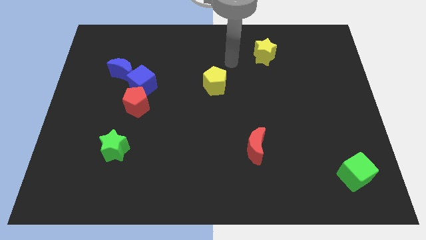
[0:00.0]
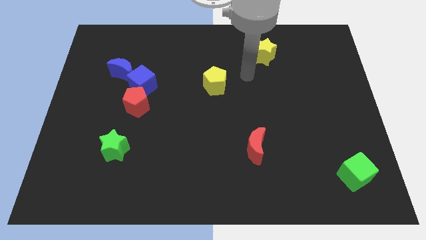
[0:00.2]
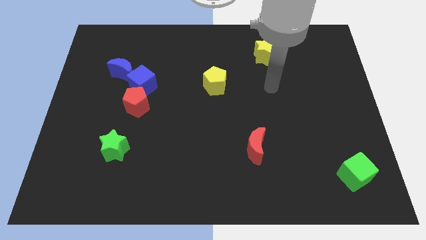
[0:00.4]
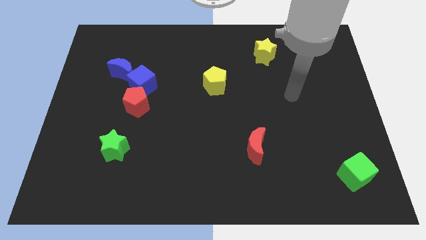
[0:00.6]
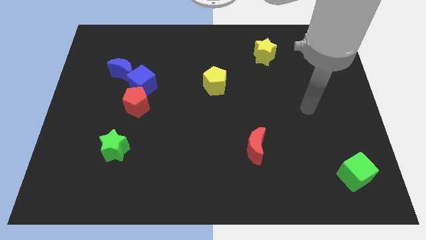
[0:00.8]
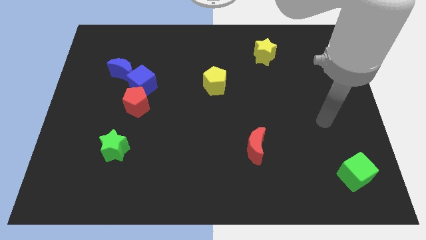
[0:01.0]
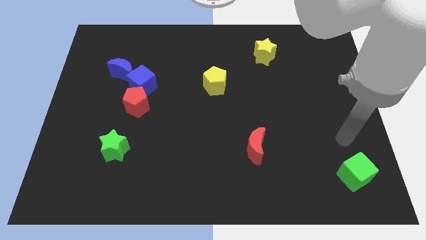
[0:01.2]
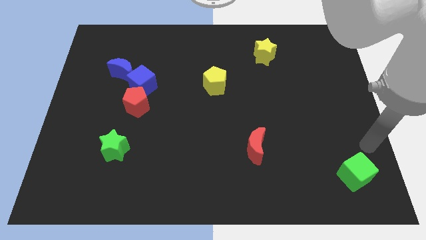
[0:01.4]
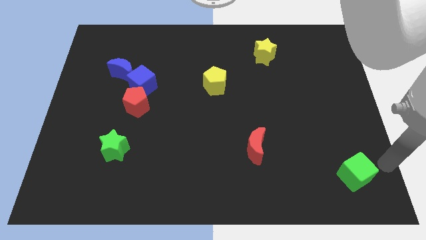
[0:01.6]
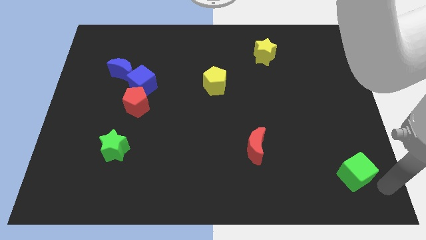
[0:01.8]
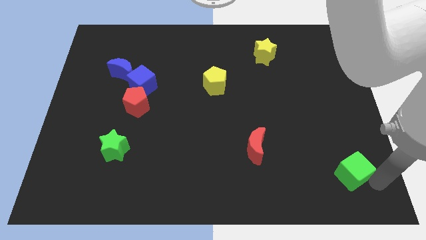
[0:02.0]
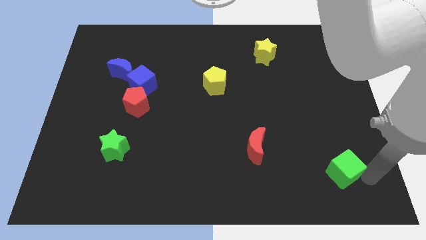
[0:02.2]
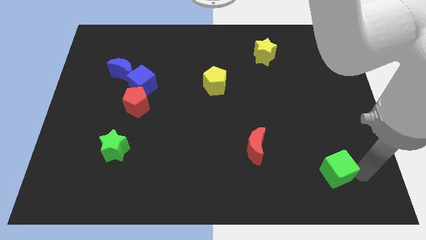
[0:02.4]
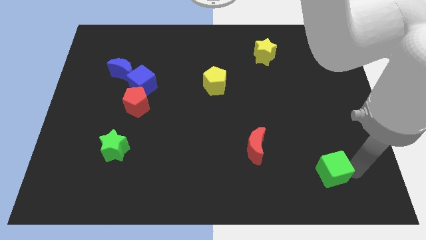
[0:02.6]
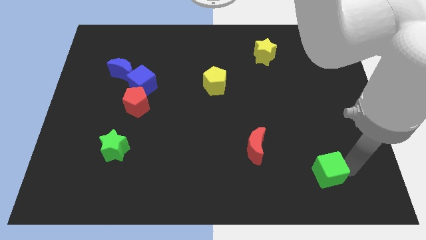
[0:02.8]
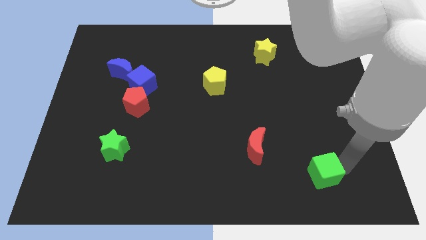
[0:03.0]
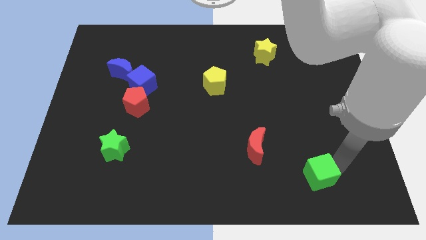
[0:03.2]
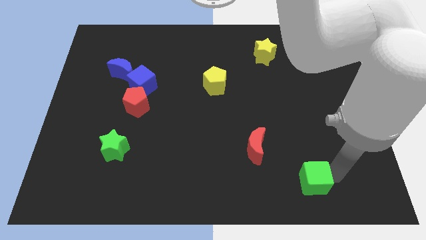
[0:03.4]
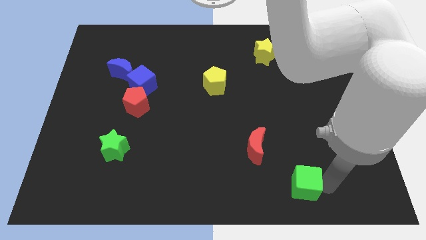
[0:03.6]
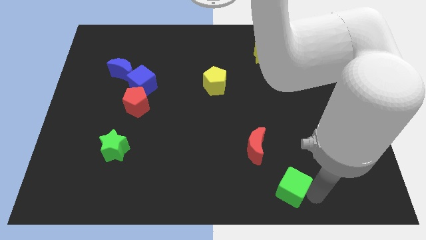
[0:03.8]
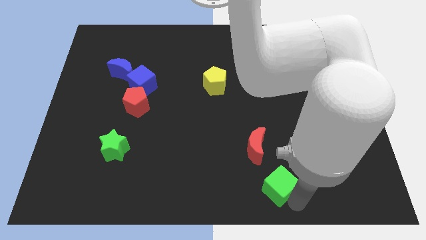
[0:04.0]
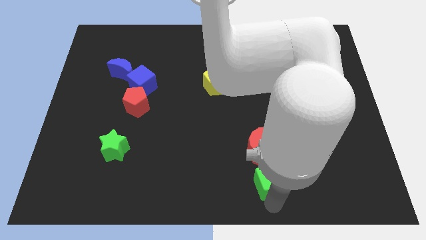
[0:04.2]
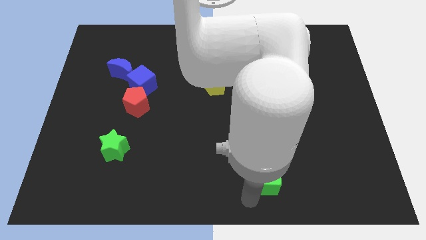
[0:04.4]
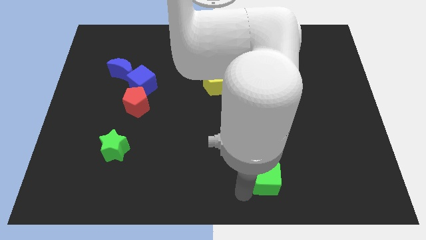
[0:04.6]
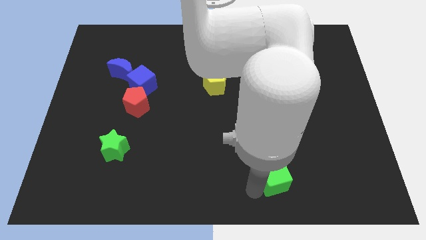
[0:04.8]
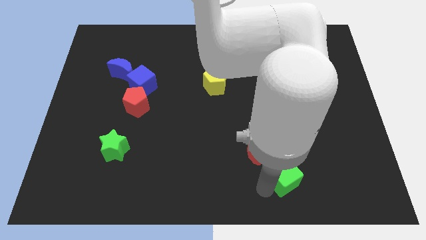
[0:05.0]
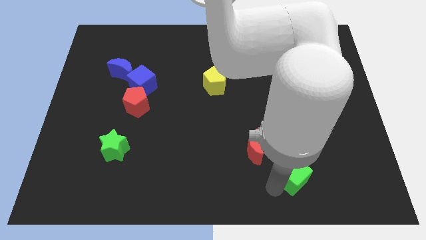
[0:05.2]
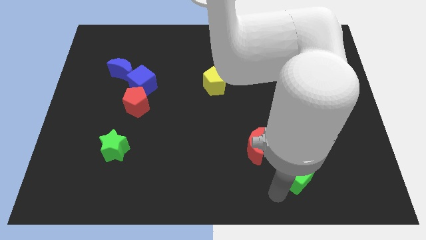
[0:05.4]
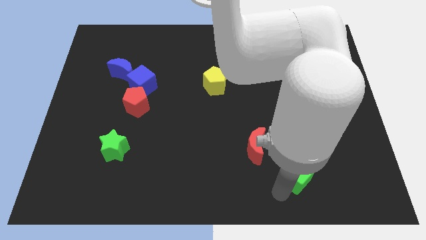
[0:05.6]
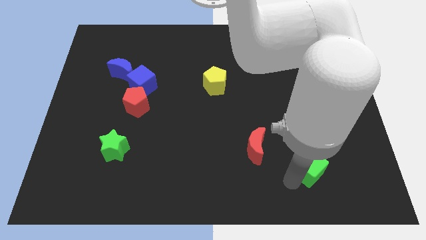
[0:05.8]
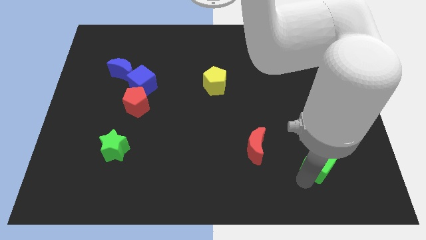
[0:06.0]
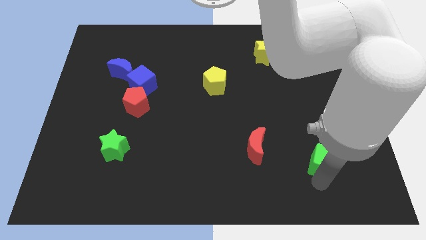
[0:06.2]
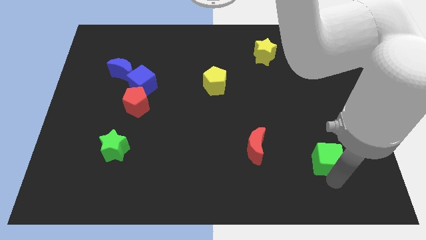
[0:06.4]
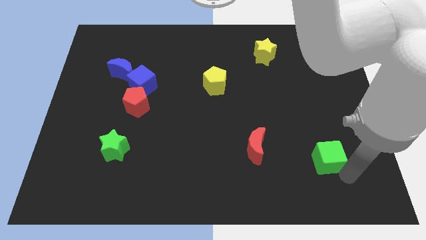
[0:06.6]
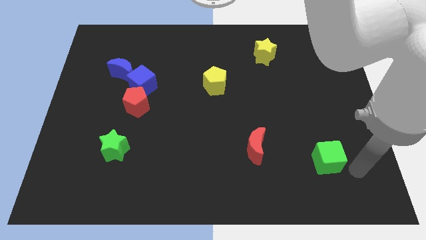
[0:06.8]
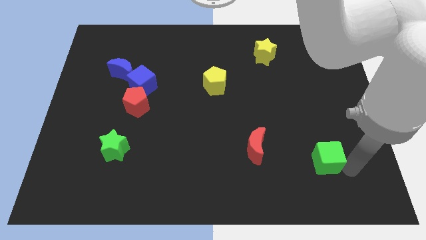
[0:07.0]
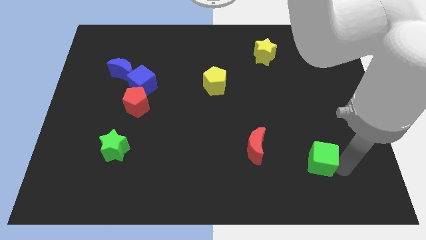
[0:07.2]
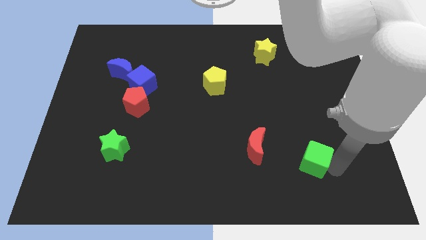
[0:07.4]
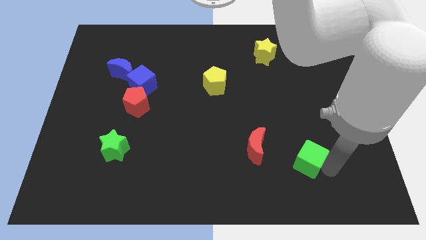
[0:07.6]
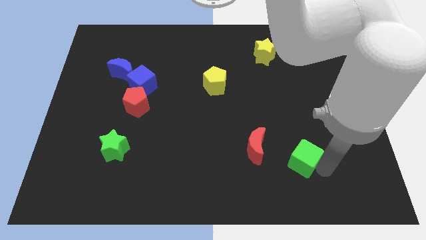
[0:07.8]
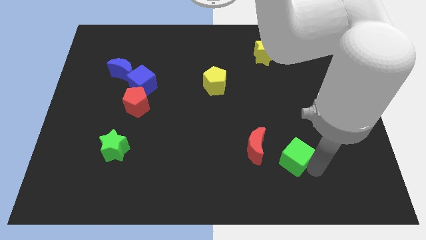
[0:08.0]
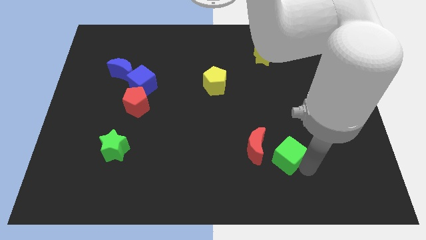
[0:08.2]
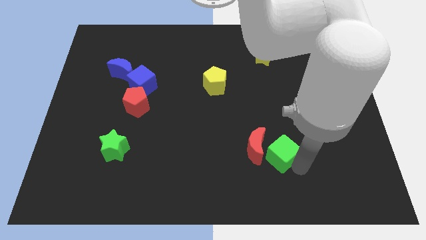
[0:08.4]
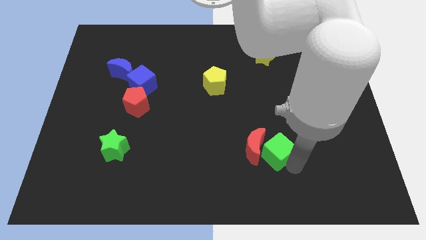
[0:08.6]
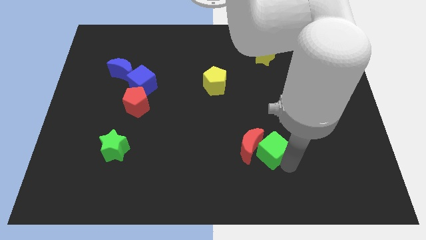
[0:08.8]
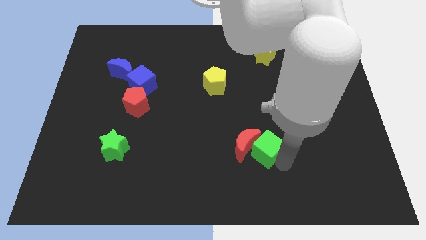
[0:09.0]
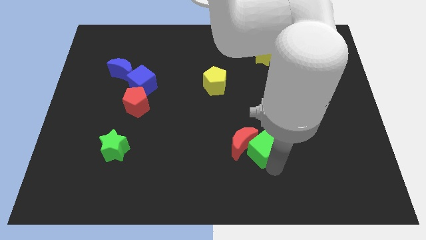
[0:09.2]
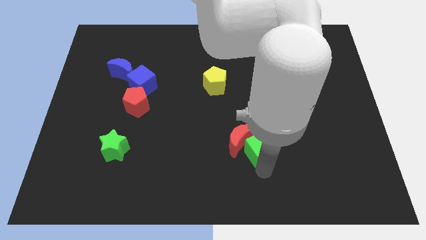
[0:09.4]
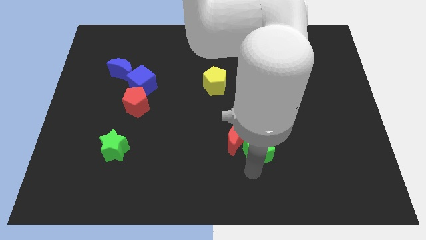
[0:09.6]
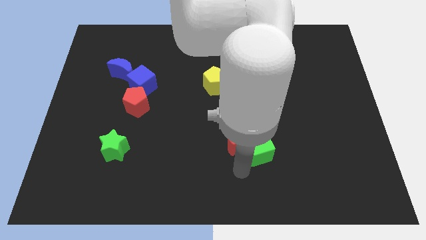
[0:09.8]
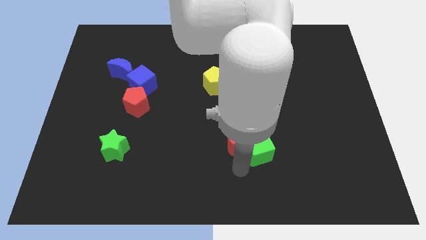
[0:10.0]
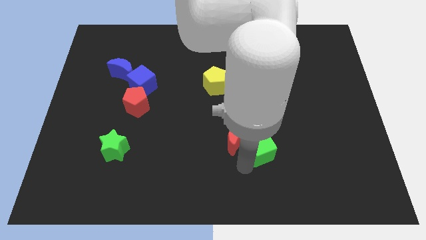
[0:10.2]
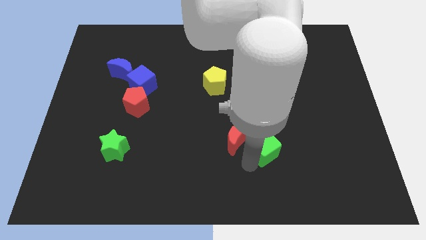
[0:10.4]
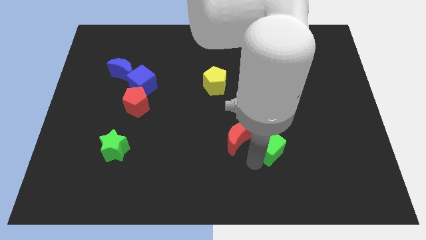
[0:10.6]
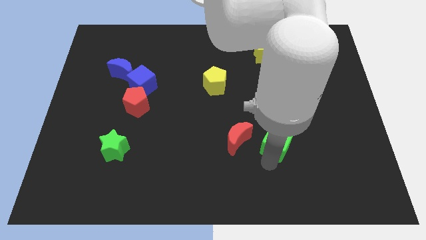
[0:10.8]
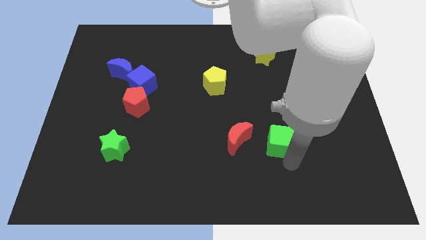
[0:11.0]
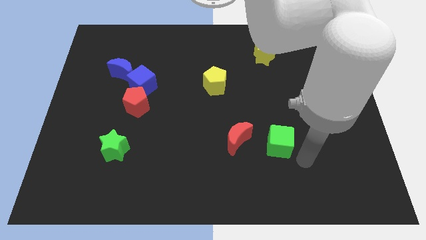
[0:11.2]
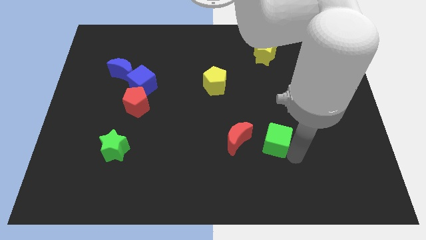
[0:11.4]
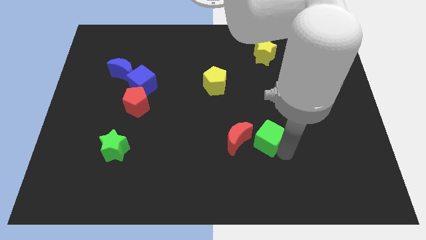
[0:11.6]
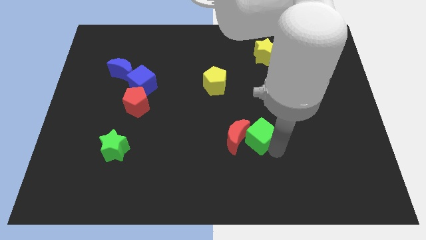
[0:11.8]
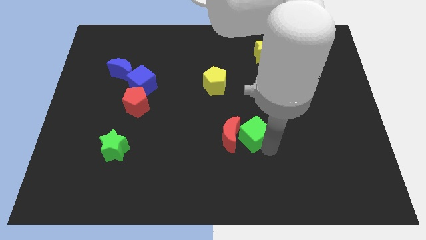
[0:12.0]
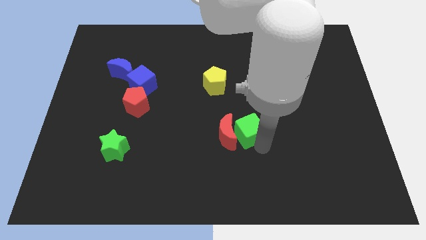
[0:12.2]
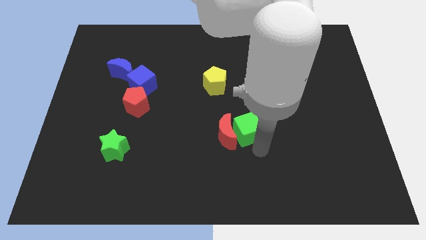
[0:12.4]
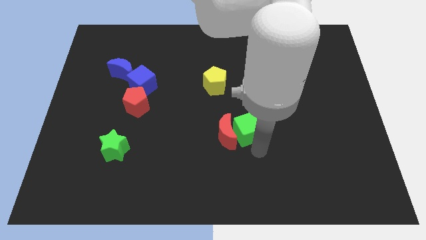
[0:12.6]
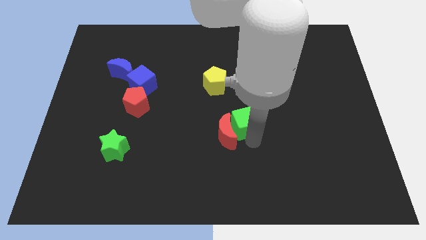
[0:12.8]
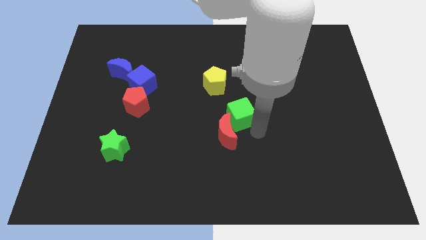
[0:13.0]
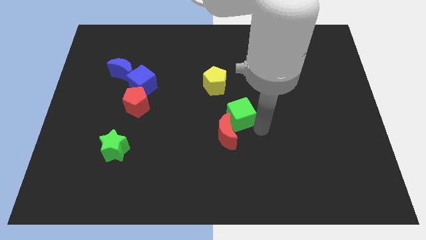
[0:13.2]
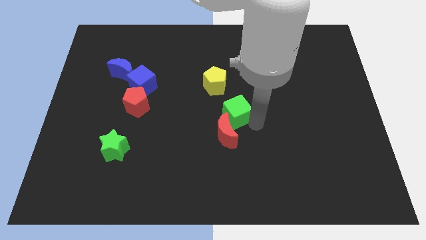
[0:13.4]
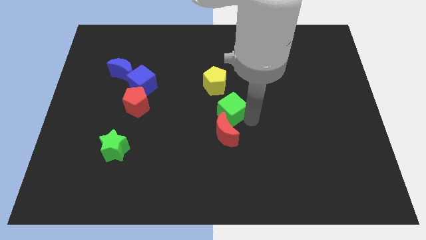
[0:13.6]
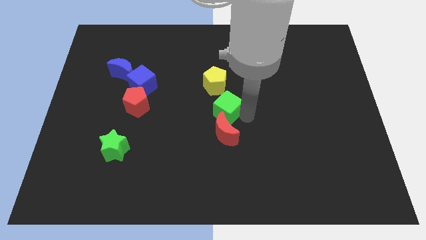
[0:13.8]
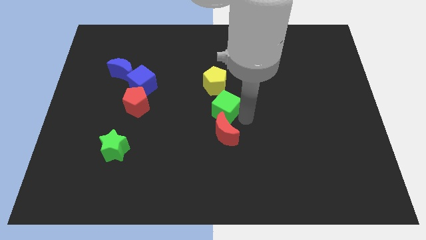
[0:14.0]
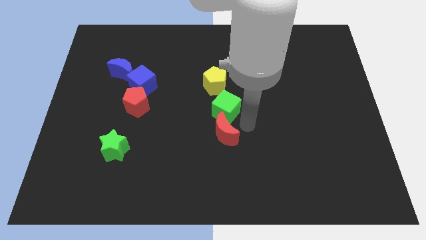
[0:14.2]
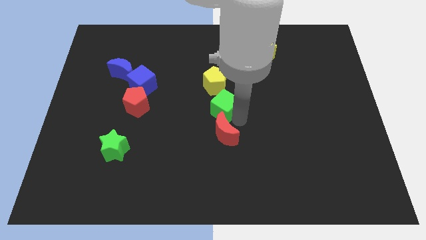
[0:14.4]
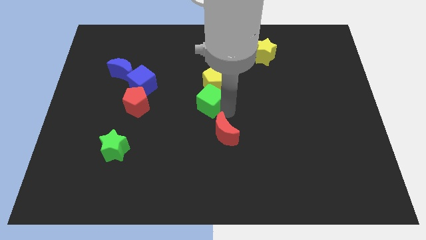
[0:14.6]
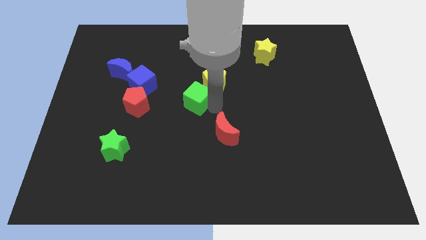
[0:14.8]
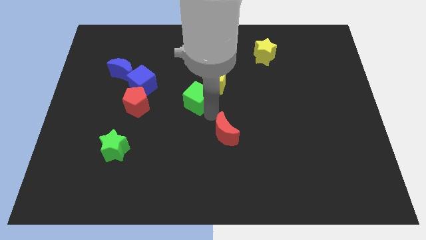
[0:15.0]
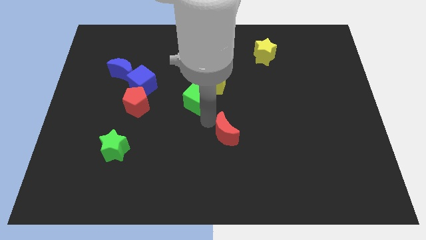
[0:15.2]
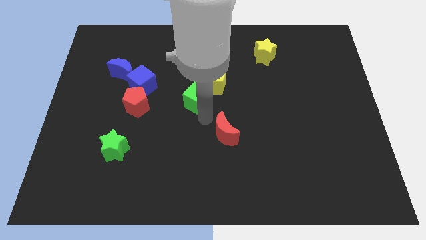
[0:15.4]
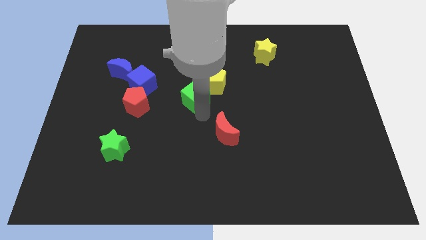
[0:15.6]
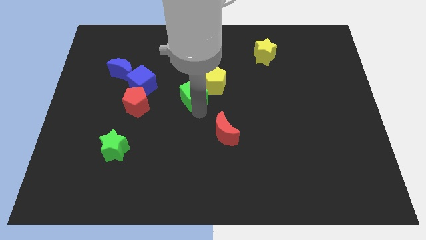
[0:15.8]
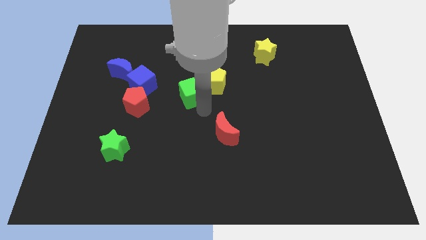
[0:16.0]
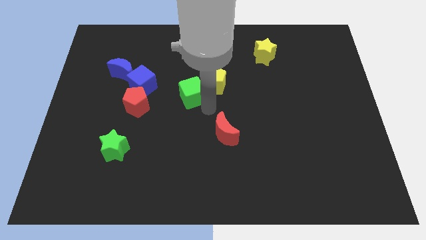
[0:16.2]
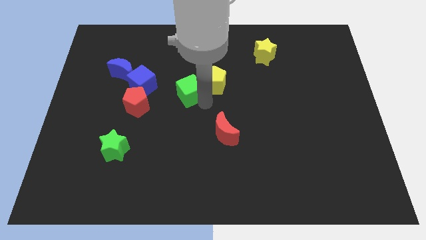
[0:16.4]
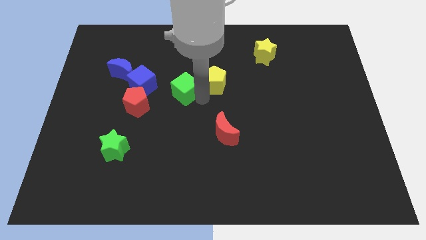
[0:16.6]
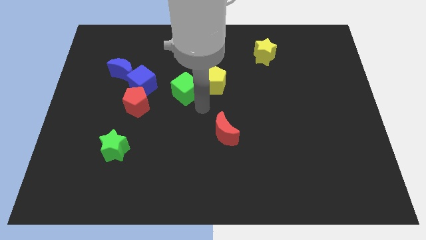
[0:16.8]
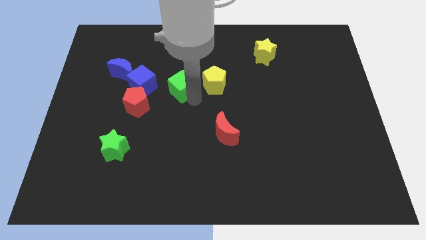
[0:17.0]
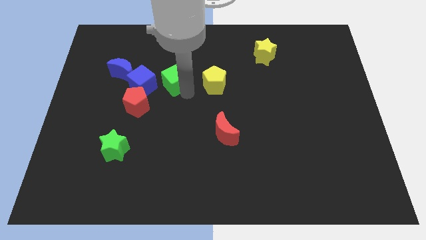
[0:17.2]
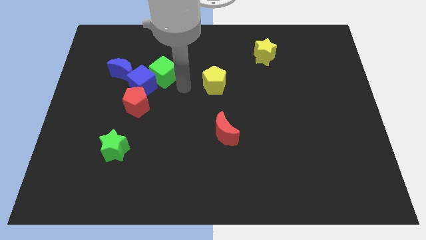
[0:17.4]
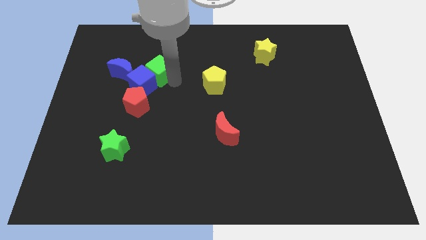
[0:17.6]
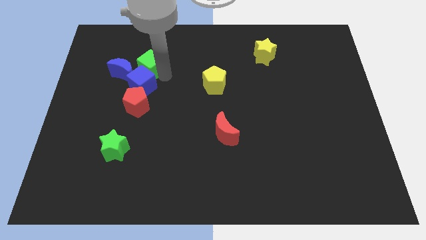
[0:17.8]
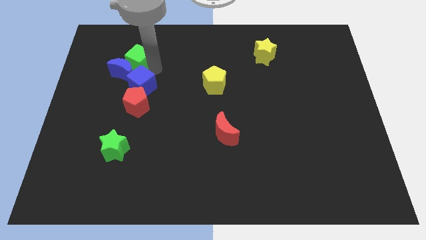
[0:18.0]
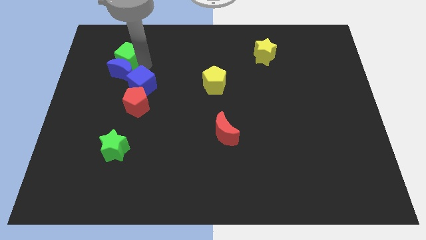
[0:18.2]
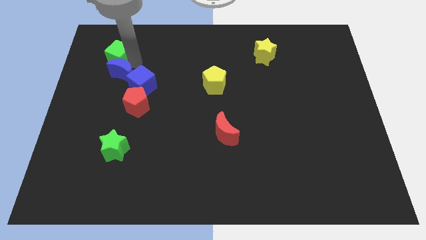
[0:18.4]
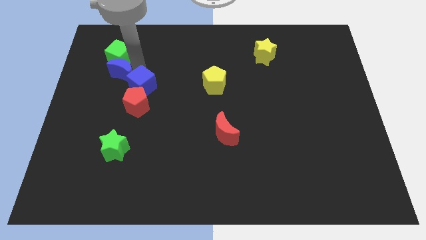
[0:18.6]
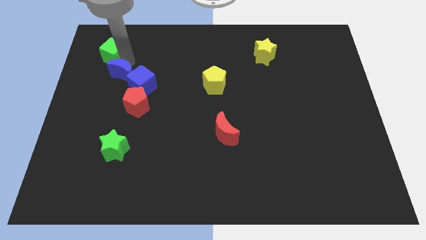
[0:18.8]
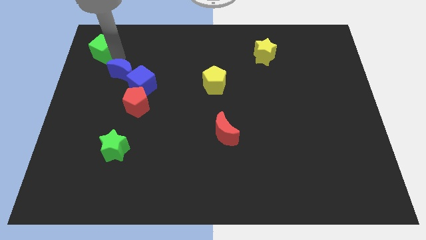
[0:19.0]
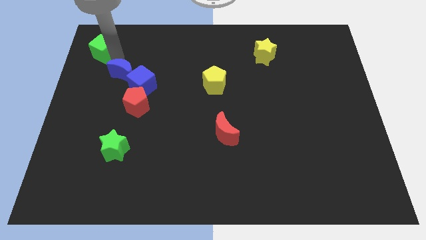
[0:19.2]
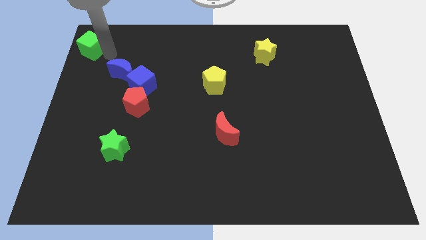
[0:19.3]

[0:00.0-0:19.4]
move the green cube to the top left of the board
